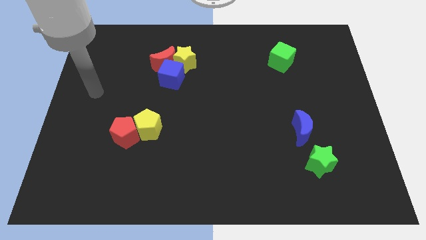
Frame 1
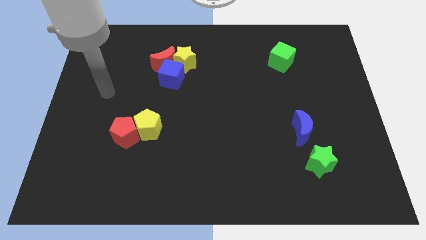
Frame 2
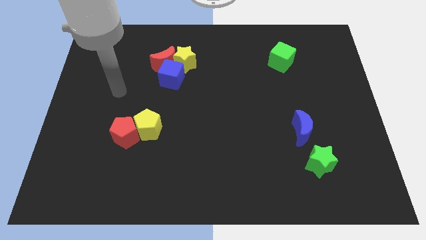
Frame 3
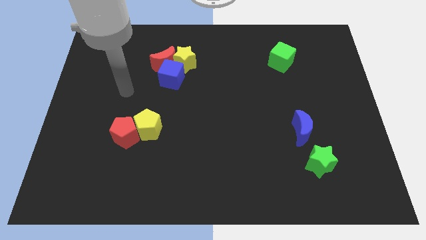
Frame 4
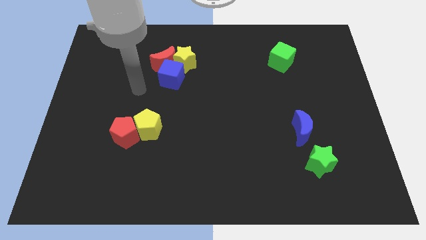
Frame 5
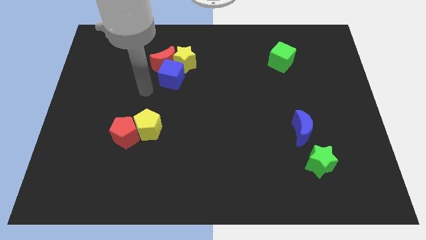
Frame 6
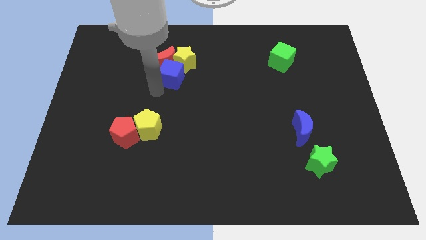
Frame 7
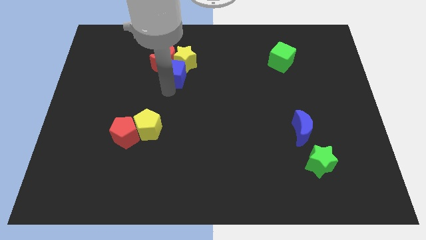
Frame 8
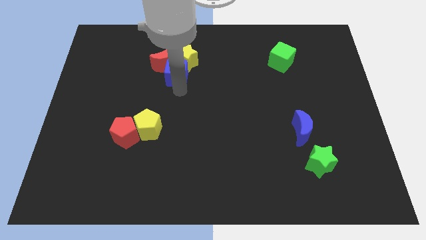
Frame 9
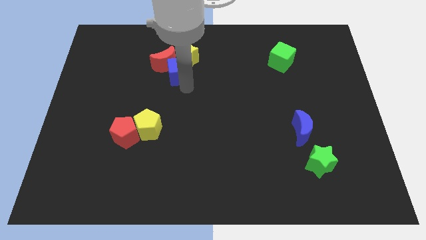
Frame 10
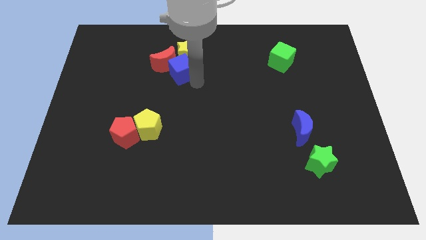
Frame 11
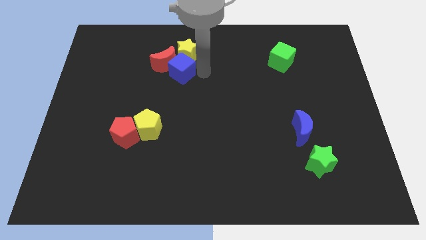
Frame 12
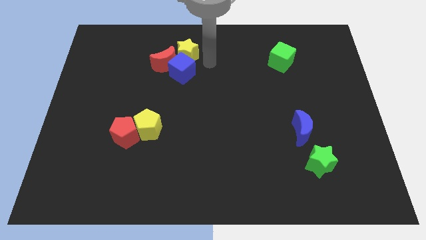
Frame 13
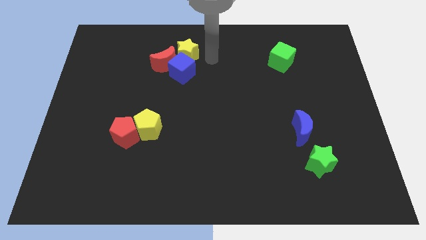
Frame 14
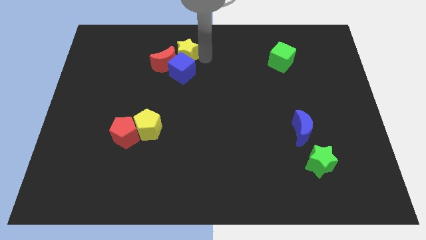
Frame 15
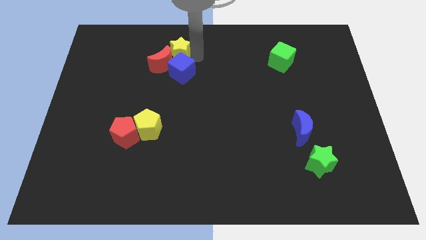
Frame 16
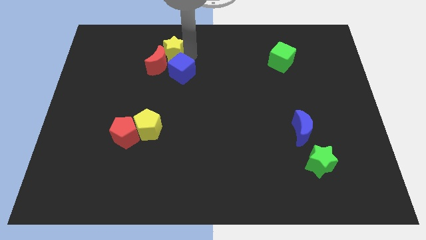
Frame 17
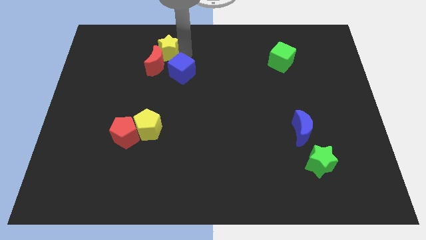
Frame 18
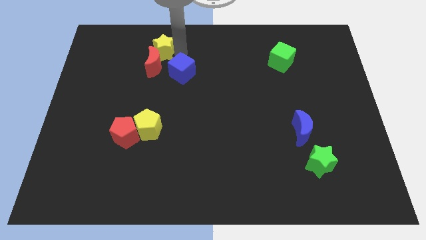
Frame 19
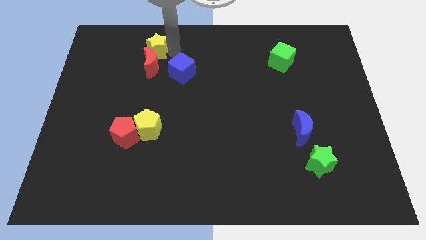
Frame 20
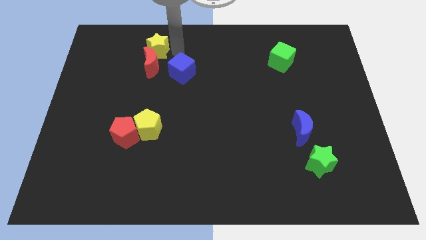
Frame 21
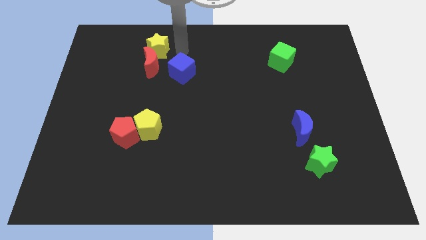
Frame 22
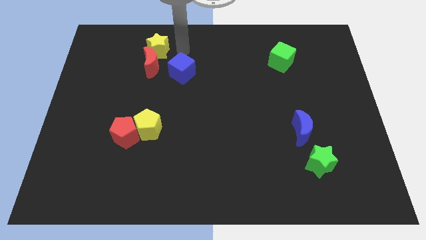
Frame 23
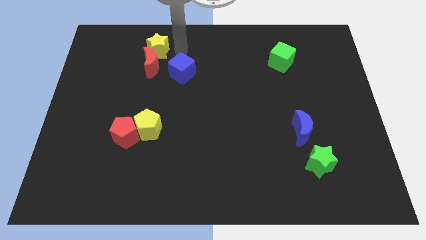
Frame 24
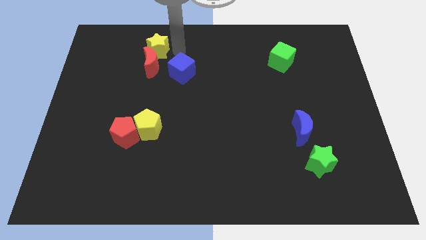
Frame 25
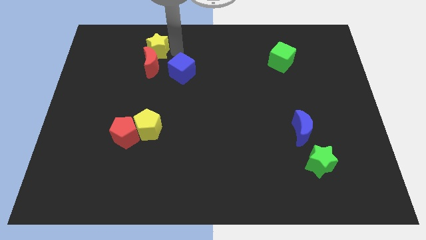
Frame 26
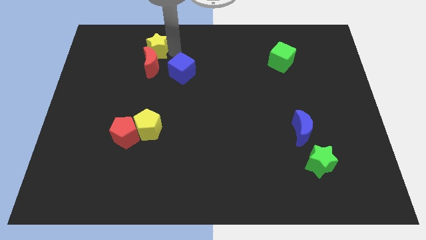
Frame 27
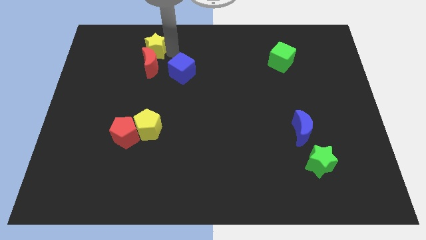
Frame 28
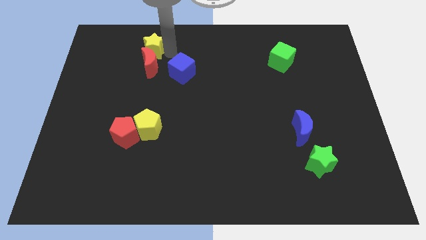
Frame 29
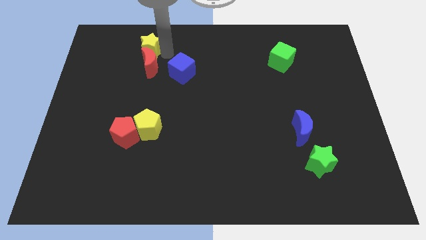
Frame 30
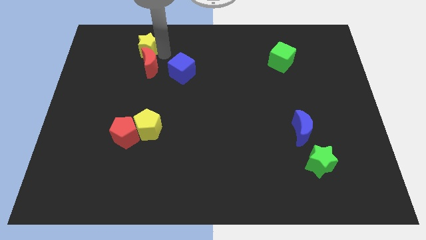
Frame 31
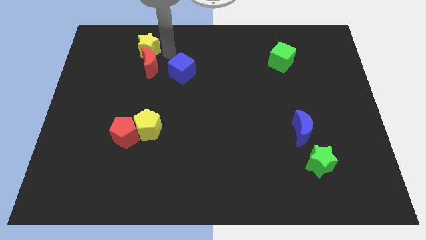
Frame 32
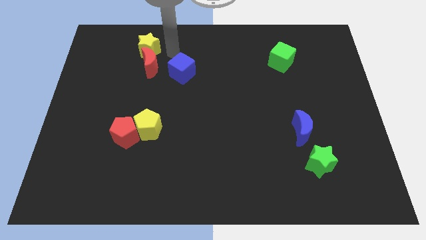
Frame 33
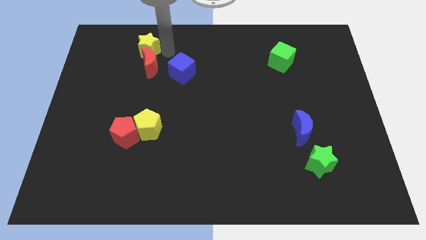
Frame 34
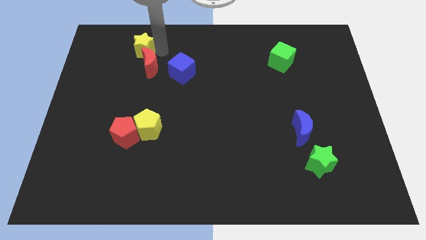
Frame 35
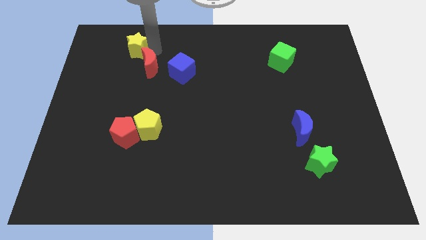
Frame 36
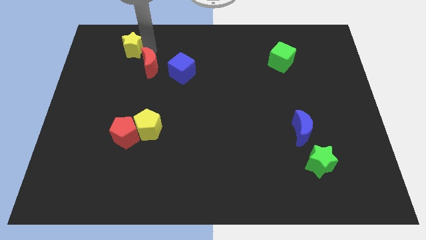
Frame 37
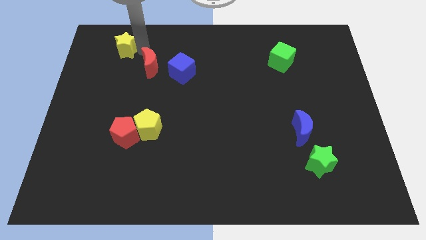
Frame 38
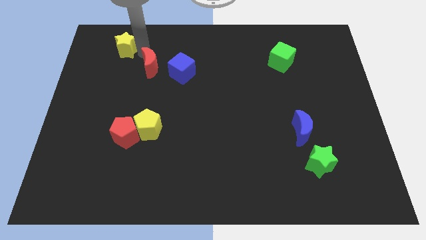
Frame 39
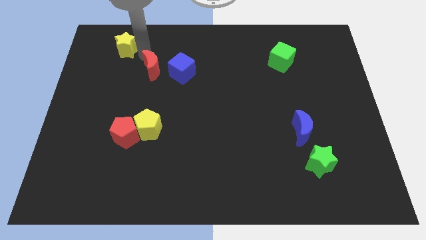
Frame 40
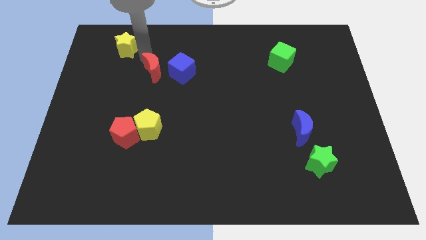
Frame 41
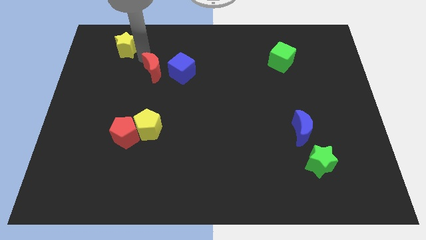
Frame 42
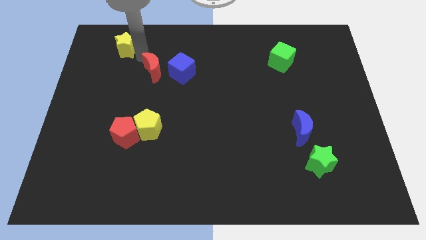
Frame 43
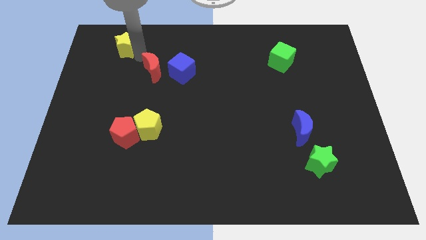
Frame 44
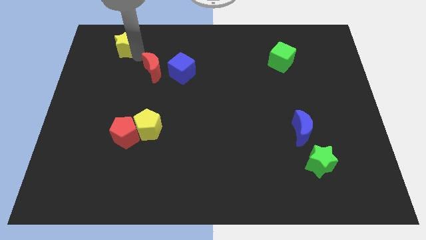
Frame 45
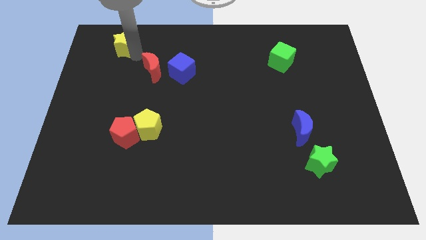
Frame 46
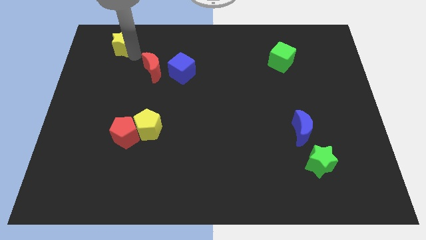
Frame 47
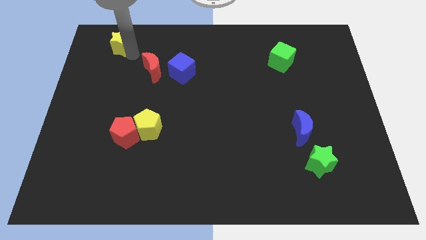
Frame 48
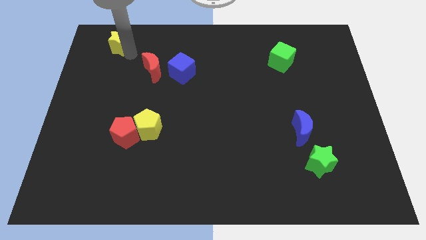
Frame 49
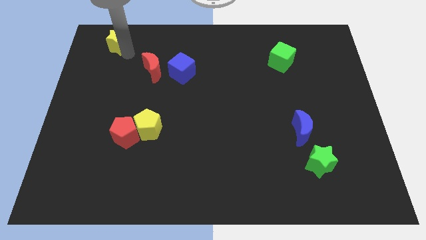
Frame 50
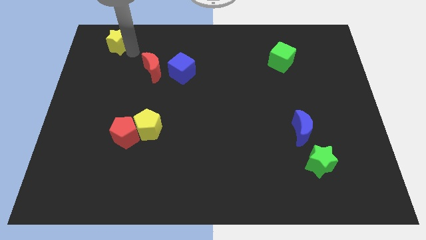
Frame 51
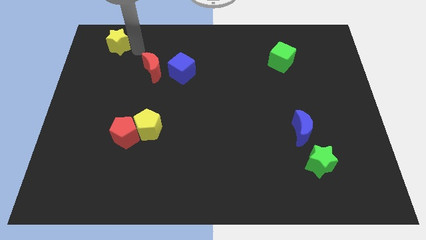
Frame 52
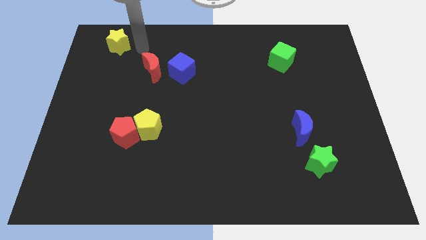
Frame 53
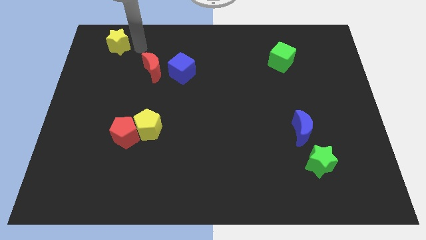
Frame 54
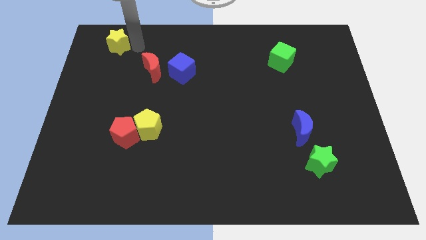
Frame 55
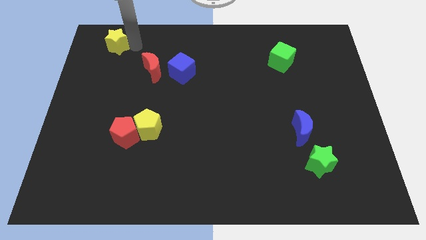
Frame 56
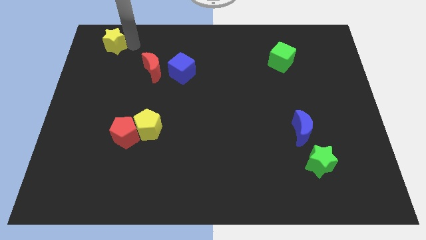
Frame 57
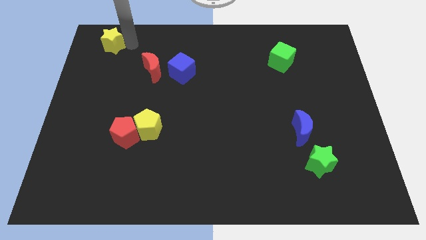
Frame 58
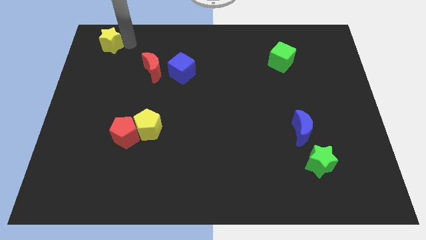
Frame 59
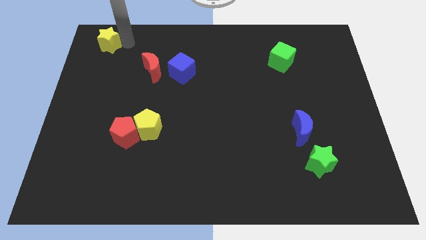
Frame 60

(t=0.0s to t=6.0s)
move the yellow star to the top left corner
